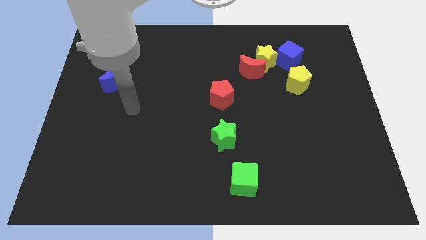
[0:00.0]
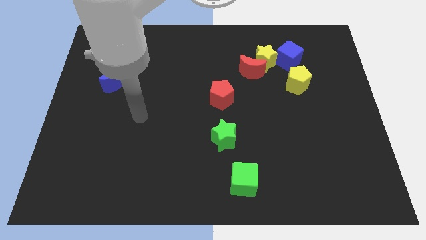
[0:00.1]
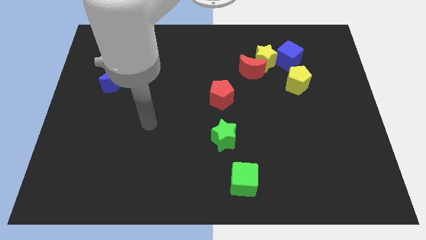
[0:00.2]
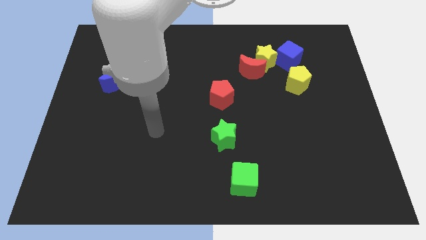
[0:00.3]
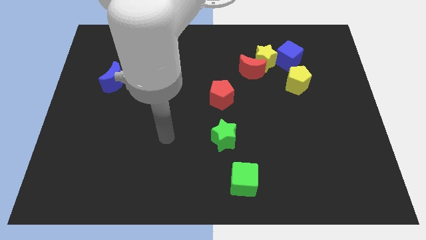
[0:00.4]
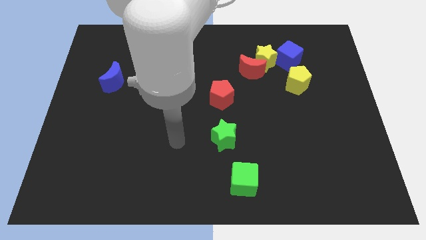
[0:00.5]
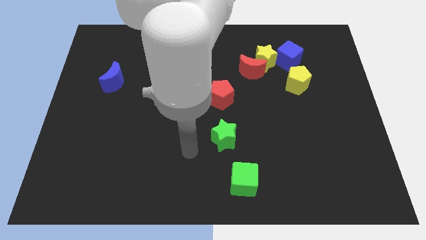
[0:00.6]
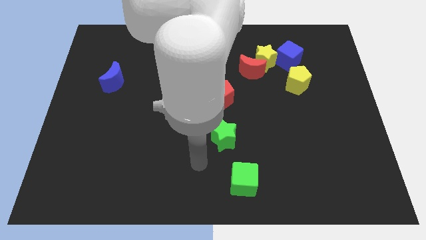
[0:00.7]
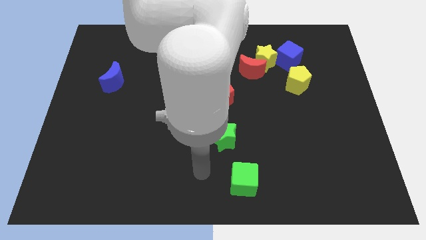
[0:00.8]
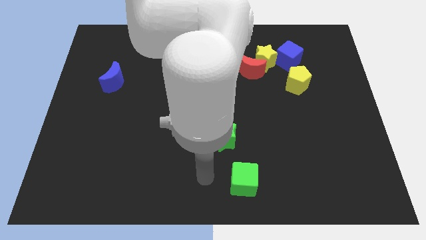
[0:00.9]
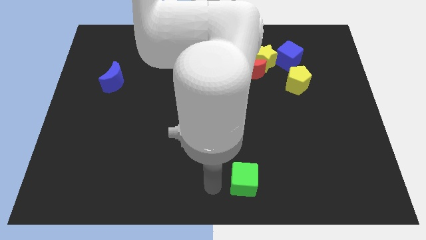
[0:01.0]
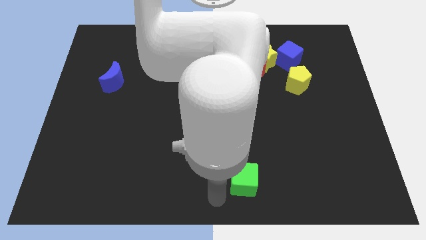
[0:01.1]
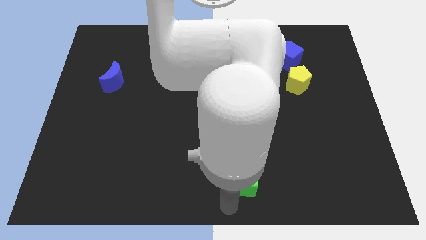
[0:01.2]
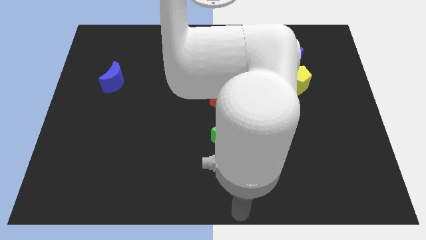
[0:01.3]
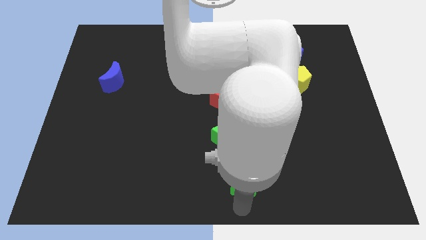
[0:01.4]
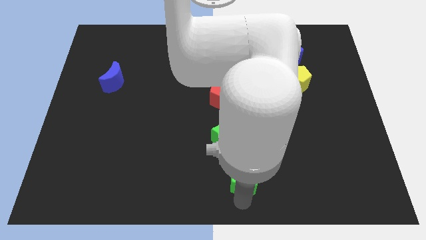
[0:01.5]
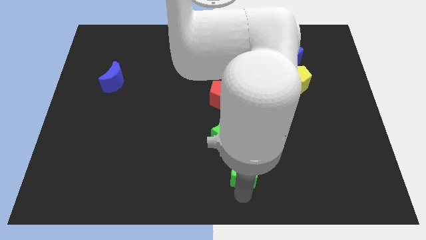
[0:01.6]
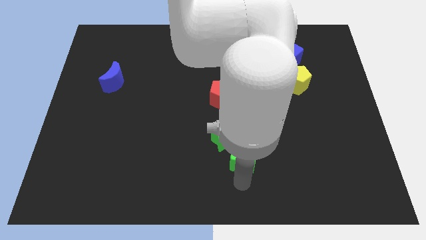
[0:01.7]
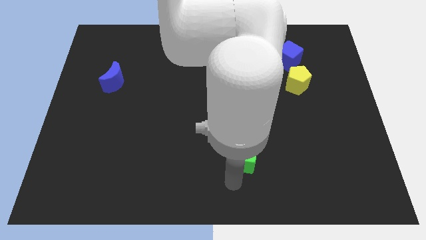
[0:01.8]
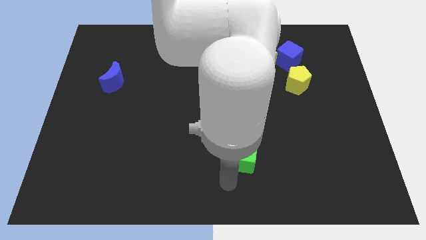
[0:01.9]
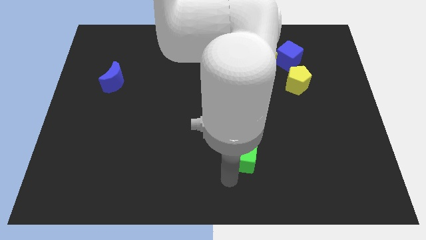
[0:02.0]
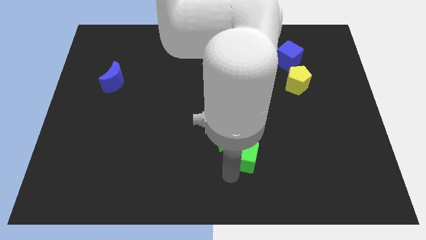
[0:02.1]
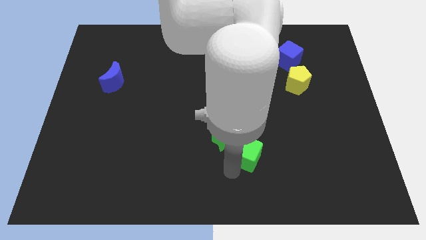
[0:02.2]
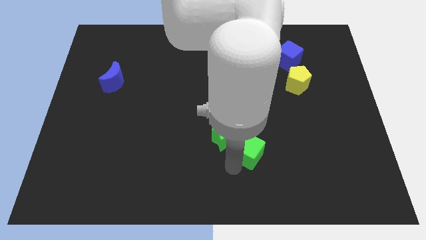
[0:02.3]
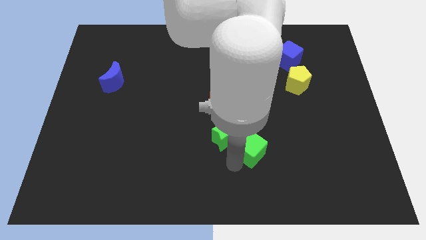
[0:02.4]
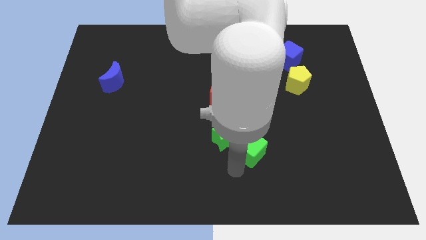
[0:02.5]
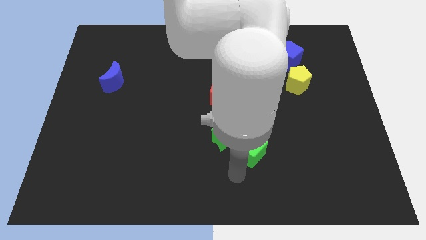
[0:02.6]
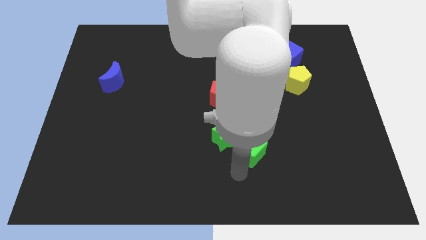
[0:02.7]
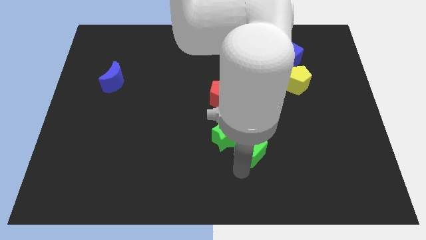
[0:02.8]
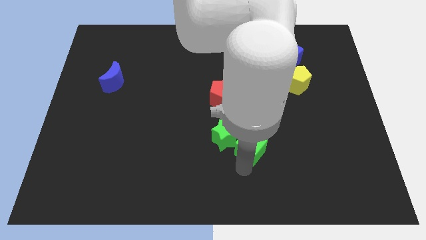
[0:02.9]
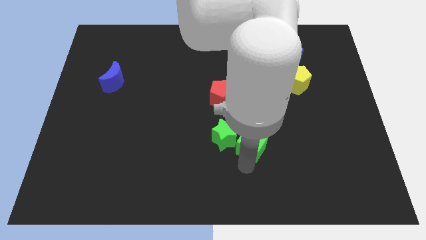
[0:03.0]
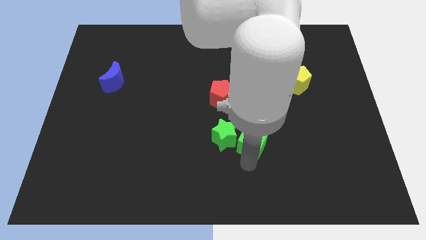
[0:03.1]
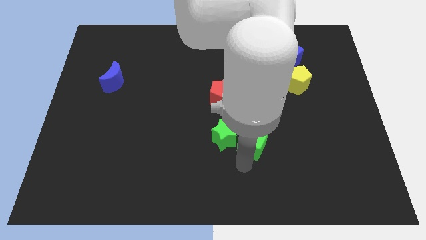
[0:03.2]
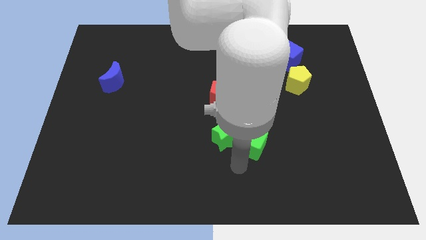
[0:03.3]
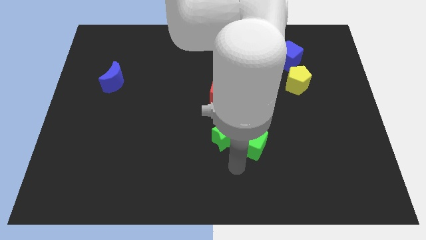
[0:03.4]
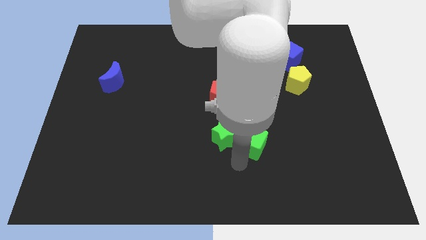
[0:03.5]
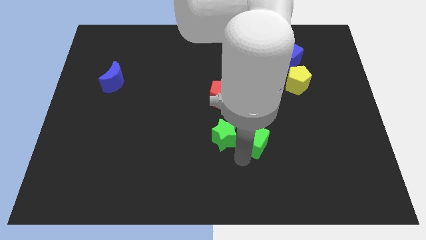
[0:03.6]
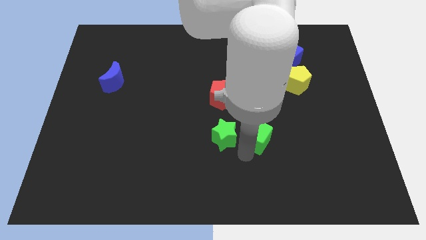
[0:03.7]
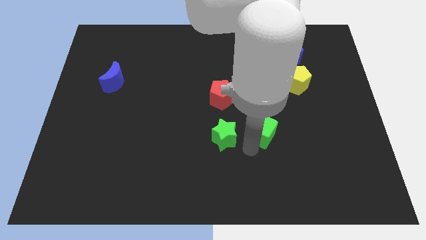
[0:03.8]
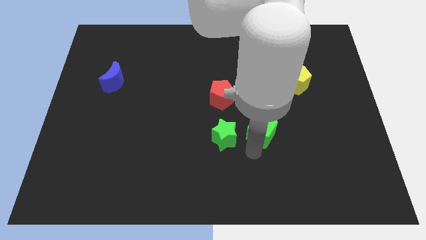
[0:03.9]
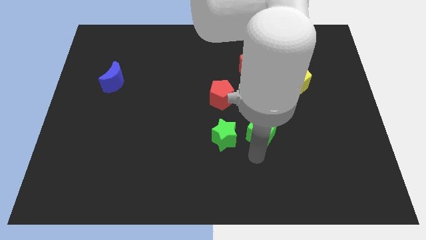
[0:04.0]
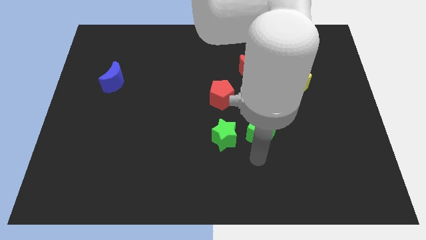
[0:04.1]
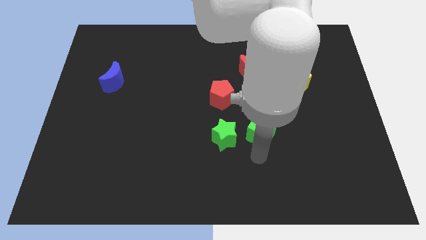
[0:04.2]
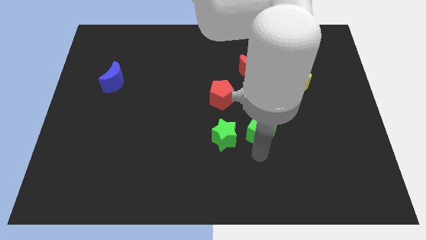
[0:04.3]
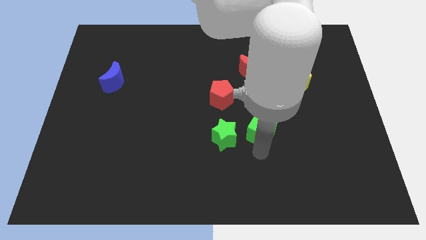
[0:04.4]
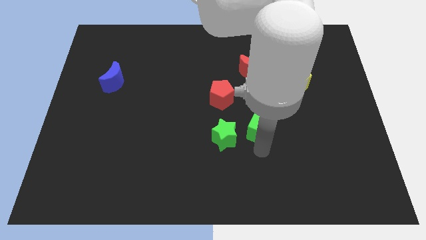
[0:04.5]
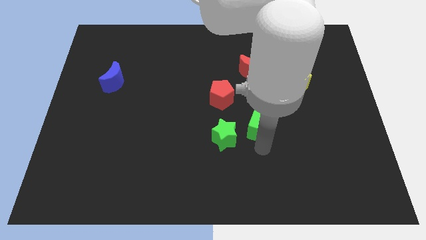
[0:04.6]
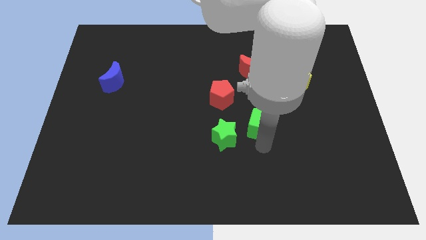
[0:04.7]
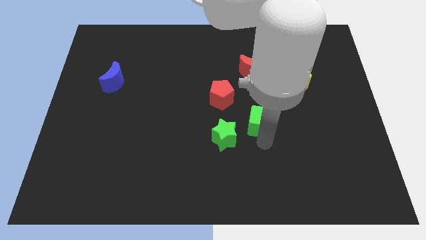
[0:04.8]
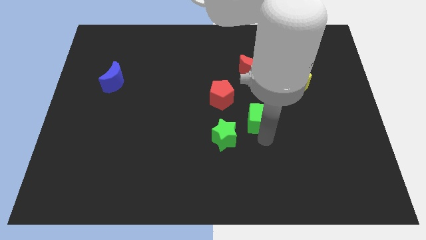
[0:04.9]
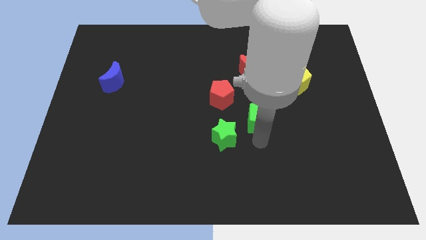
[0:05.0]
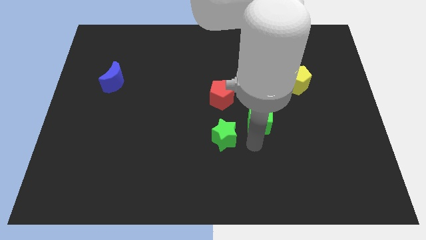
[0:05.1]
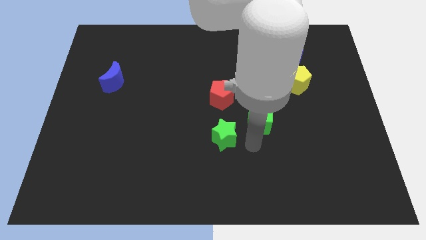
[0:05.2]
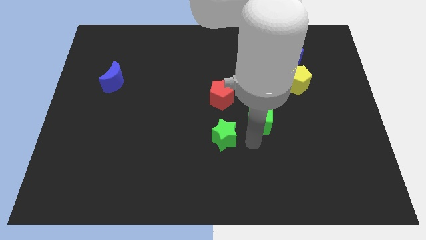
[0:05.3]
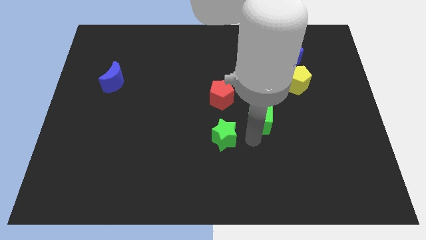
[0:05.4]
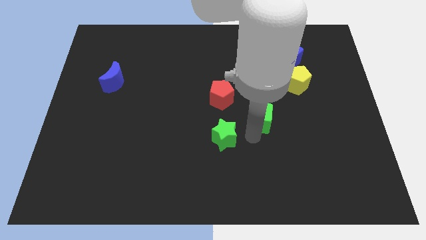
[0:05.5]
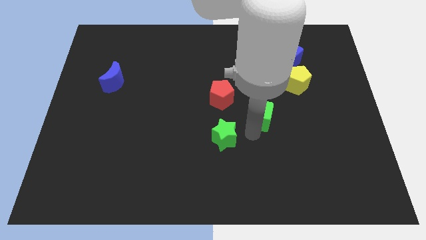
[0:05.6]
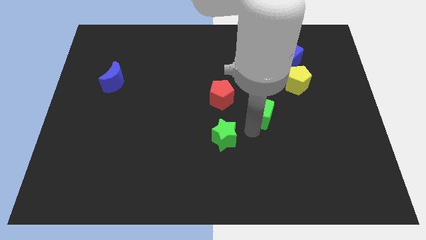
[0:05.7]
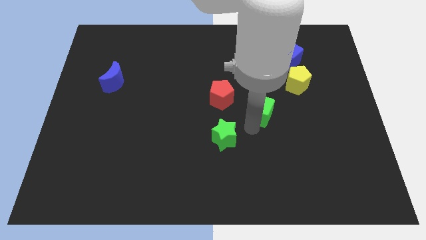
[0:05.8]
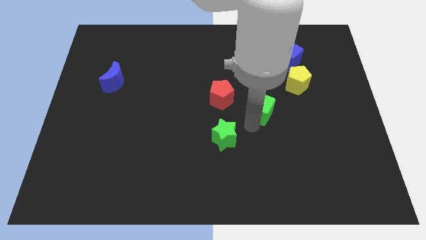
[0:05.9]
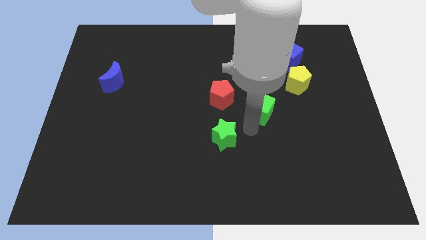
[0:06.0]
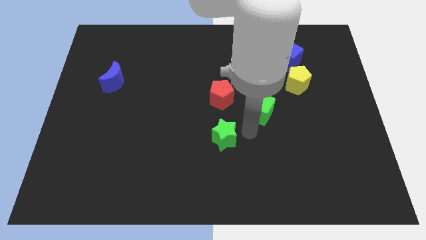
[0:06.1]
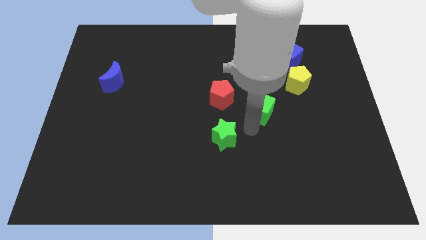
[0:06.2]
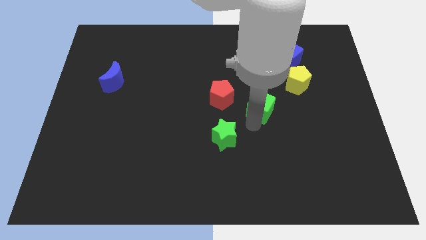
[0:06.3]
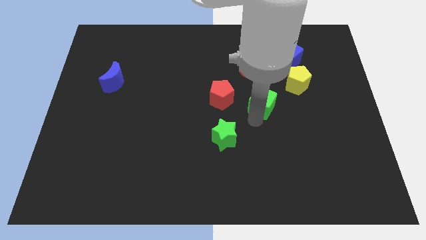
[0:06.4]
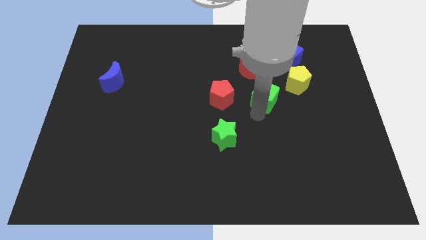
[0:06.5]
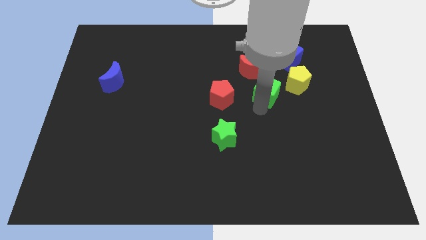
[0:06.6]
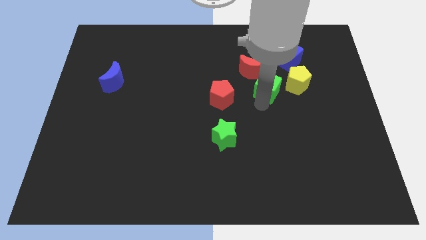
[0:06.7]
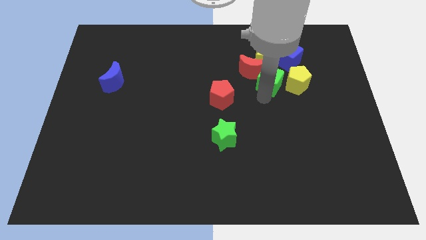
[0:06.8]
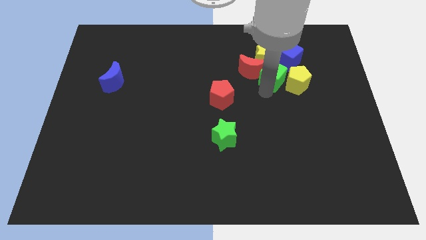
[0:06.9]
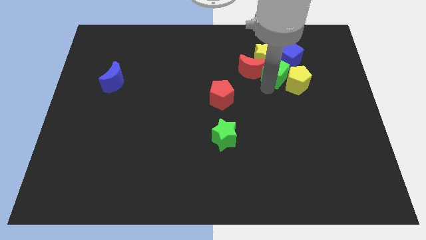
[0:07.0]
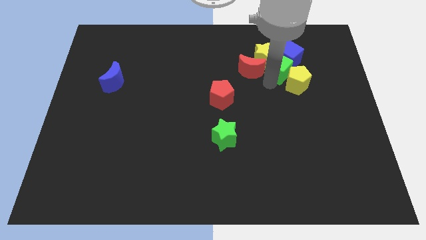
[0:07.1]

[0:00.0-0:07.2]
move the green cube next to the blue cube
